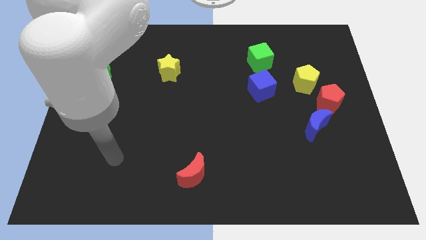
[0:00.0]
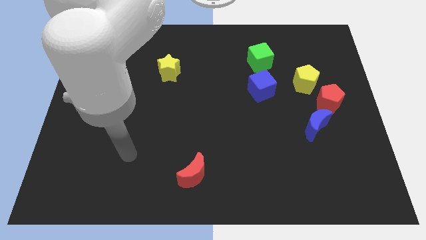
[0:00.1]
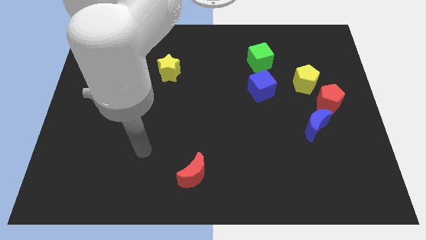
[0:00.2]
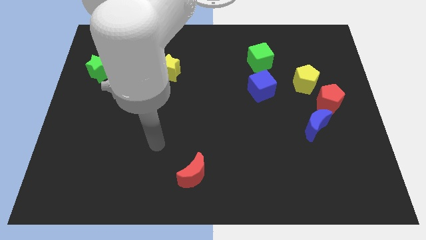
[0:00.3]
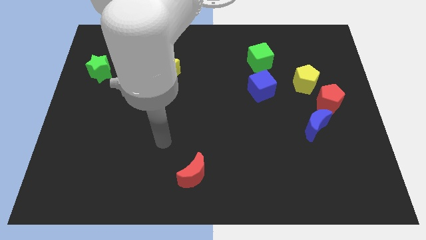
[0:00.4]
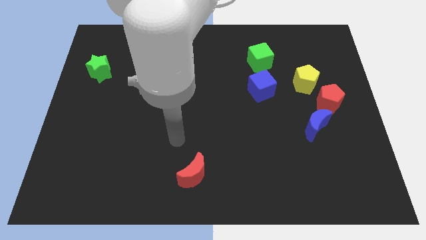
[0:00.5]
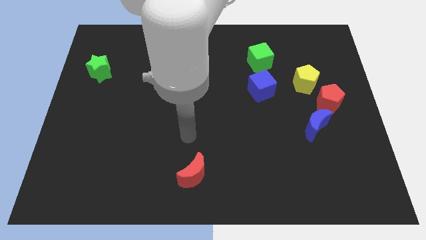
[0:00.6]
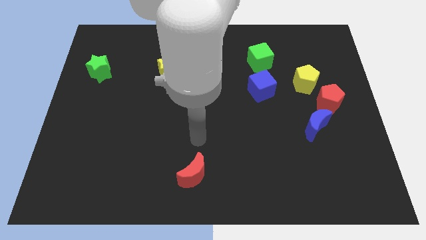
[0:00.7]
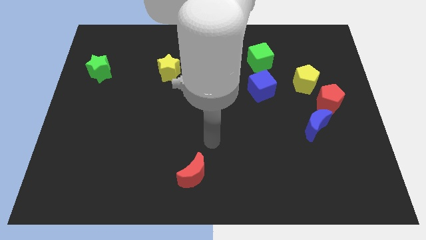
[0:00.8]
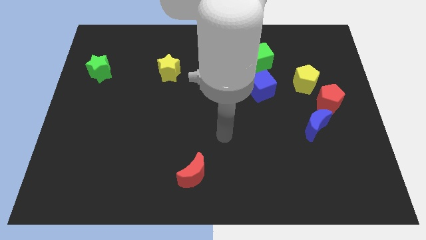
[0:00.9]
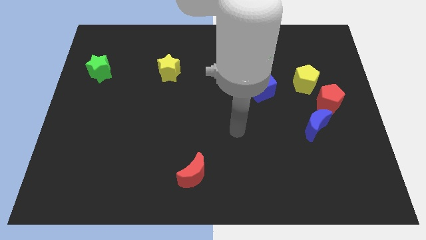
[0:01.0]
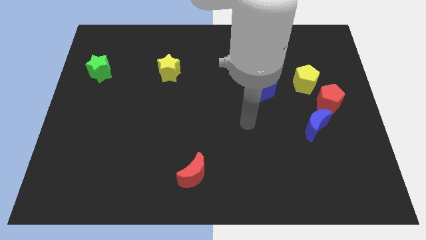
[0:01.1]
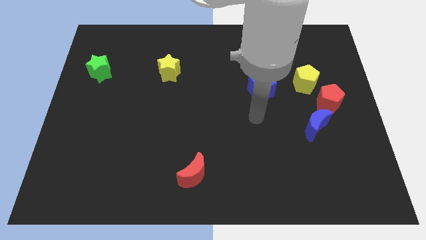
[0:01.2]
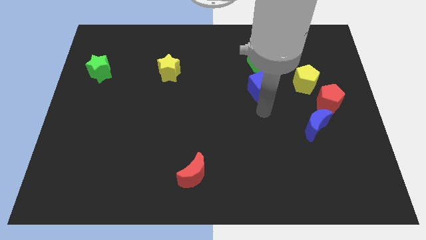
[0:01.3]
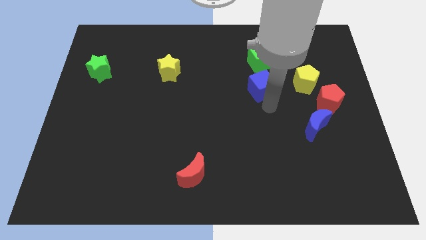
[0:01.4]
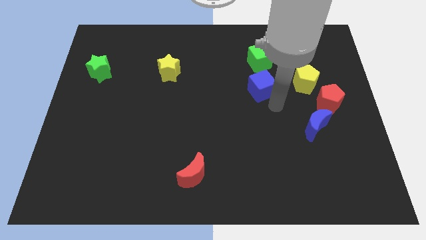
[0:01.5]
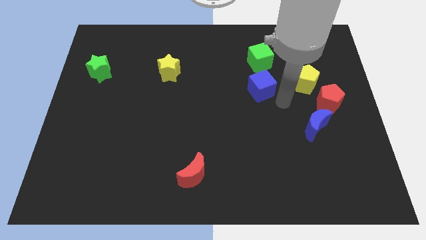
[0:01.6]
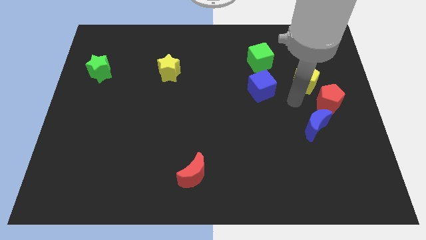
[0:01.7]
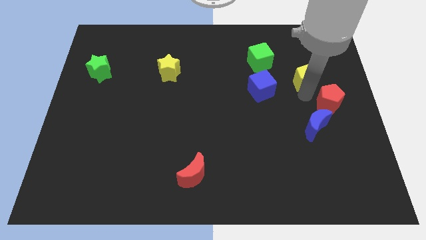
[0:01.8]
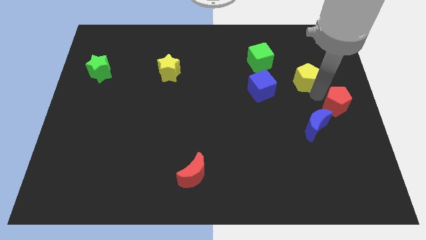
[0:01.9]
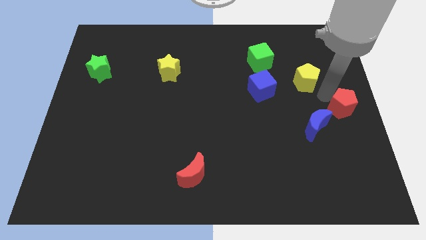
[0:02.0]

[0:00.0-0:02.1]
move the yellow pentagon away from the red pentagon

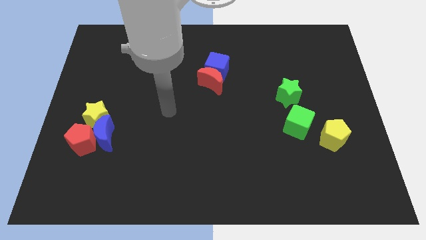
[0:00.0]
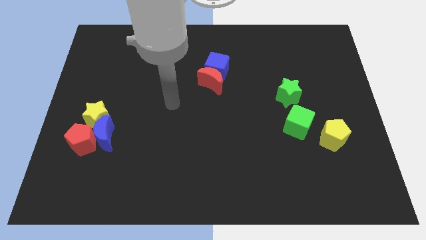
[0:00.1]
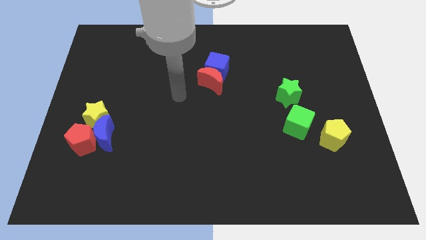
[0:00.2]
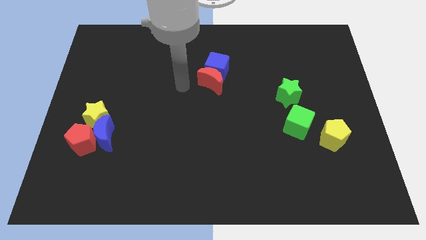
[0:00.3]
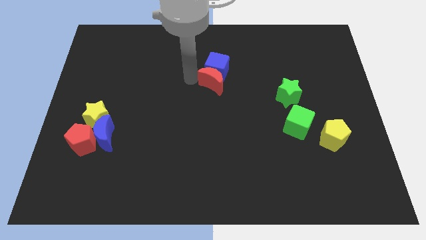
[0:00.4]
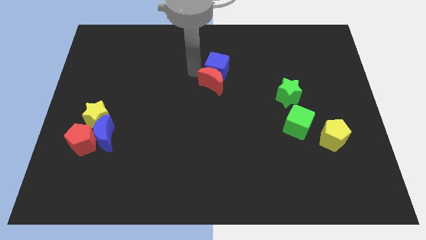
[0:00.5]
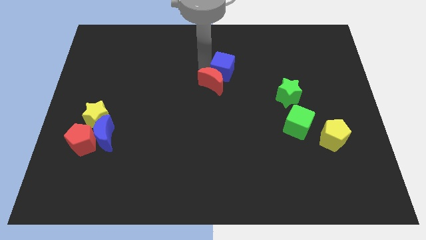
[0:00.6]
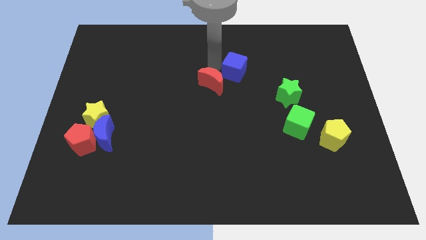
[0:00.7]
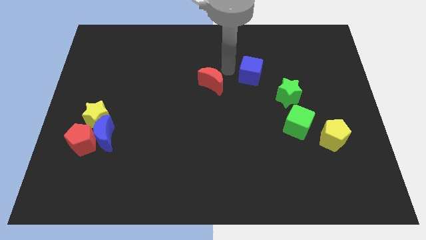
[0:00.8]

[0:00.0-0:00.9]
separate the red moon from the blue cube

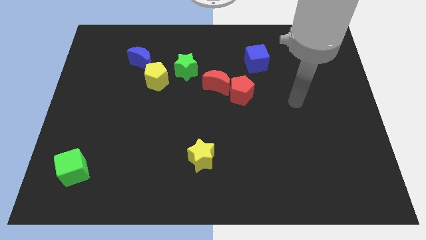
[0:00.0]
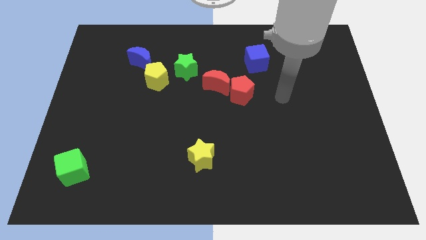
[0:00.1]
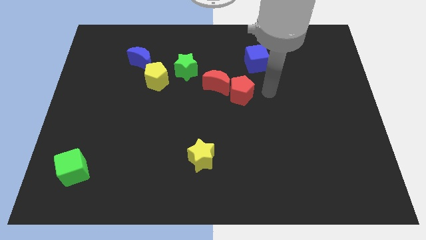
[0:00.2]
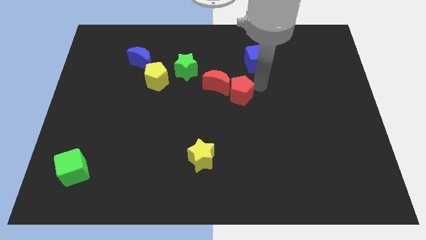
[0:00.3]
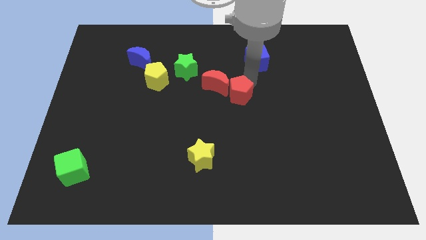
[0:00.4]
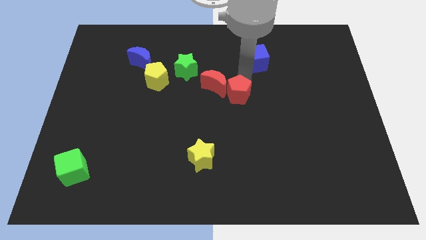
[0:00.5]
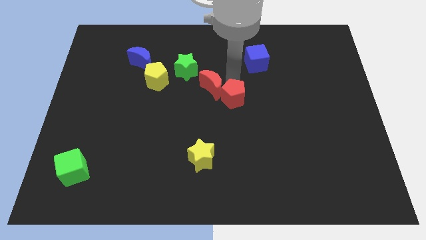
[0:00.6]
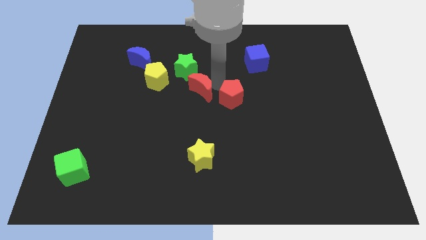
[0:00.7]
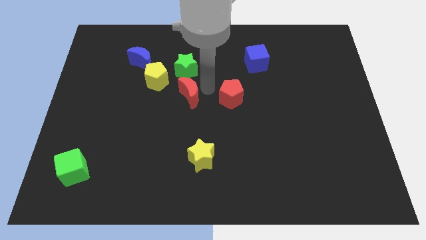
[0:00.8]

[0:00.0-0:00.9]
pull the red pentagon apart from the red moon

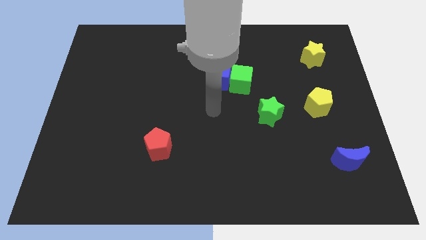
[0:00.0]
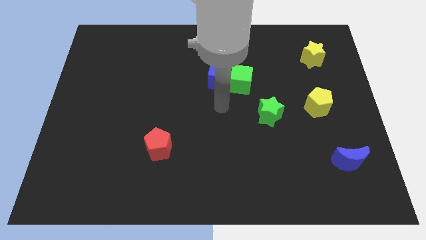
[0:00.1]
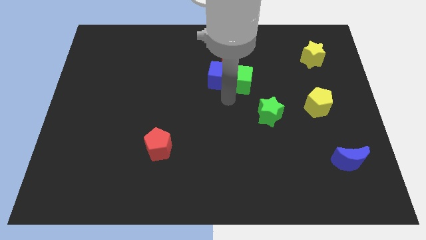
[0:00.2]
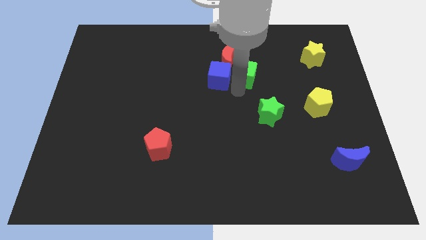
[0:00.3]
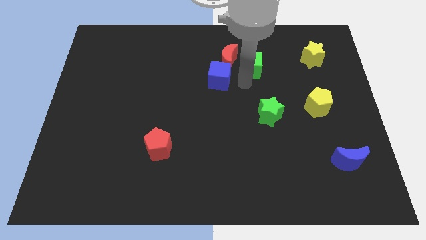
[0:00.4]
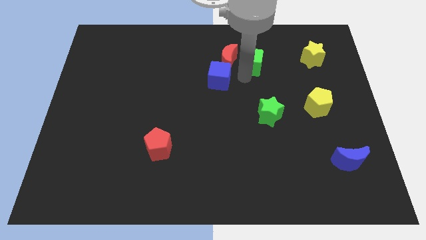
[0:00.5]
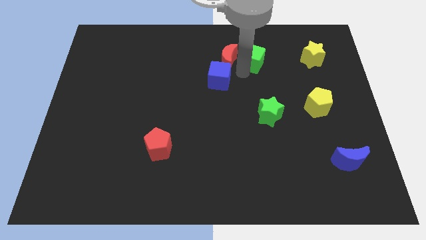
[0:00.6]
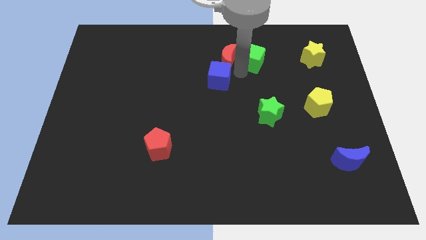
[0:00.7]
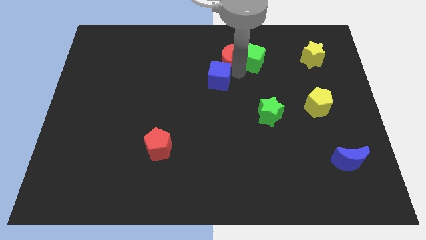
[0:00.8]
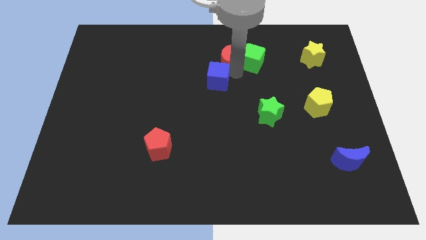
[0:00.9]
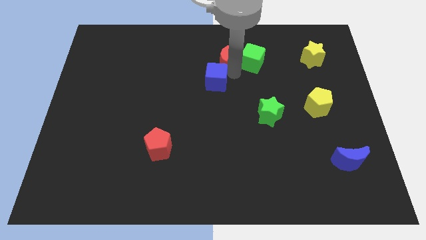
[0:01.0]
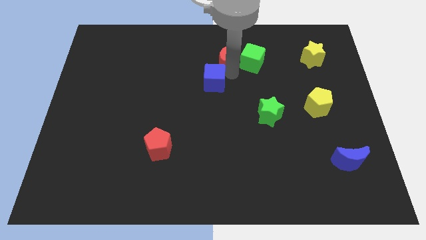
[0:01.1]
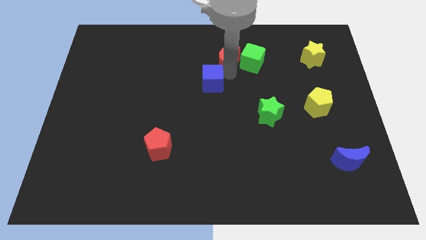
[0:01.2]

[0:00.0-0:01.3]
separate the blue cube from the green cube and red moon

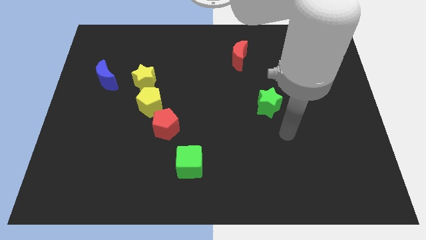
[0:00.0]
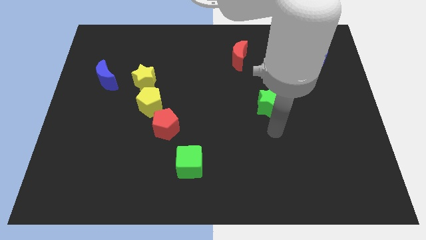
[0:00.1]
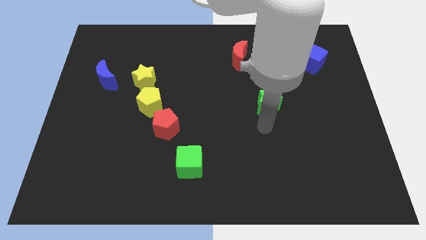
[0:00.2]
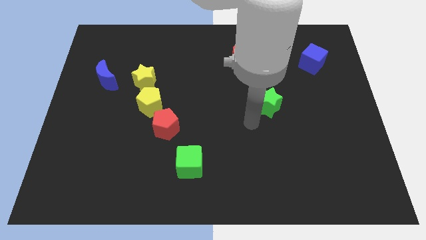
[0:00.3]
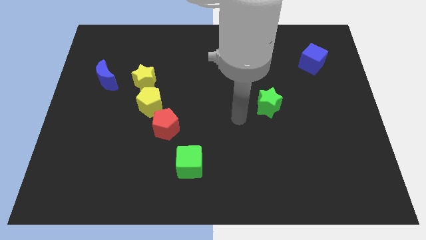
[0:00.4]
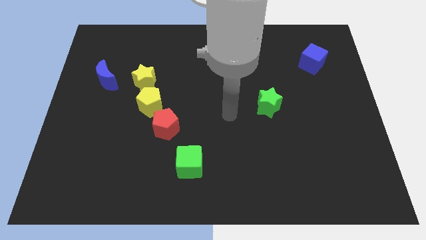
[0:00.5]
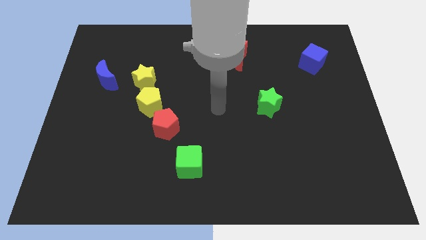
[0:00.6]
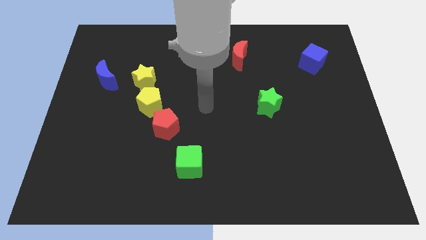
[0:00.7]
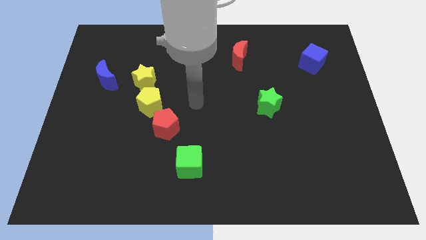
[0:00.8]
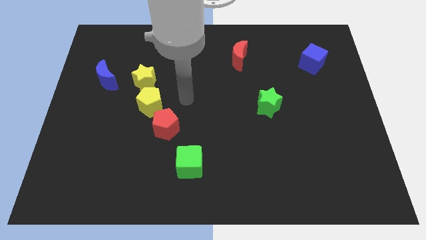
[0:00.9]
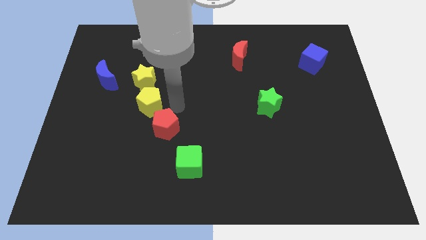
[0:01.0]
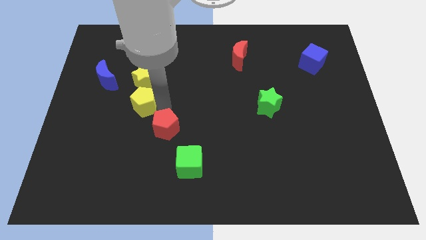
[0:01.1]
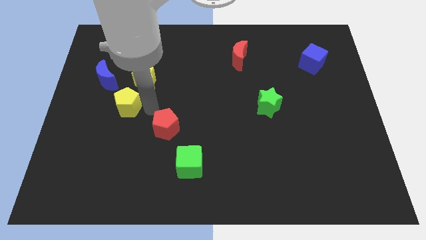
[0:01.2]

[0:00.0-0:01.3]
separate the red pentagon from the yellow pentagon

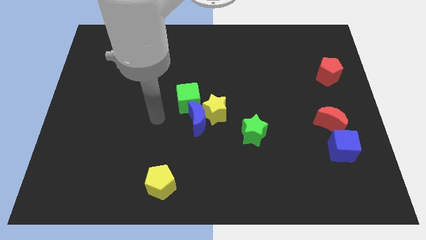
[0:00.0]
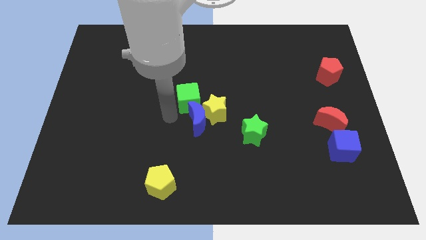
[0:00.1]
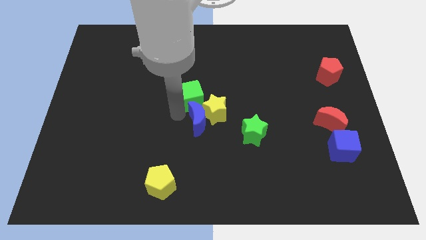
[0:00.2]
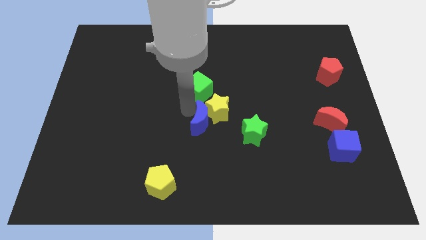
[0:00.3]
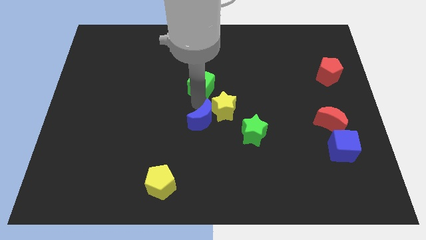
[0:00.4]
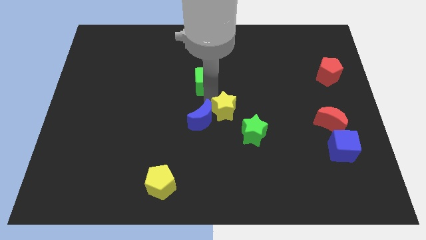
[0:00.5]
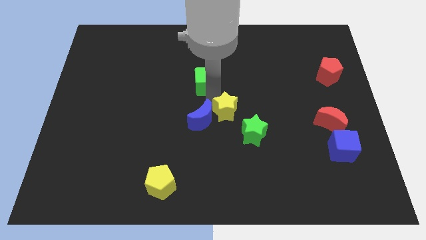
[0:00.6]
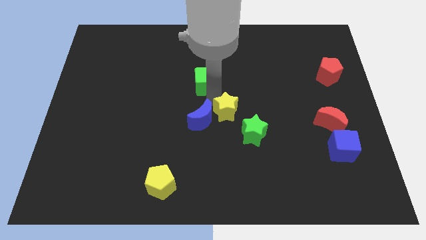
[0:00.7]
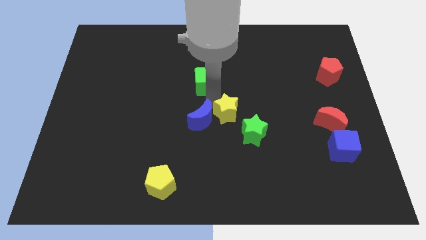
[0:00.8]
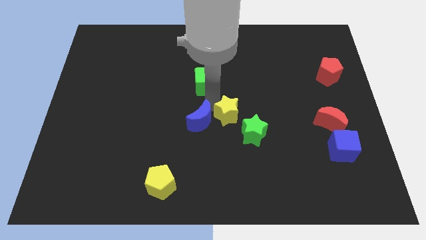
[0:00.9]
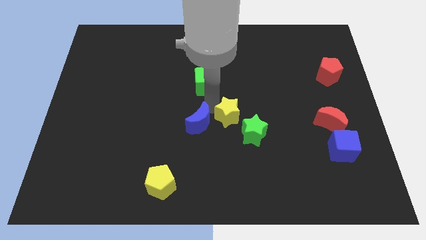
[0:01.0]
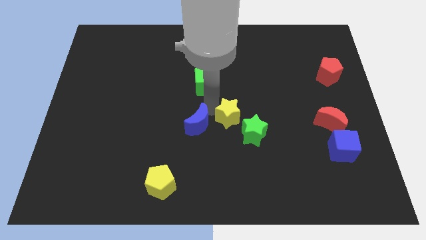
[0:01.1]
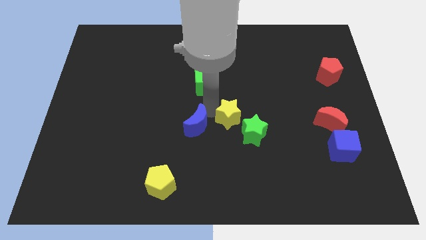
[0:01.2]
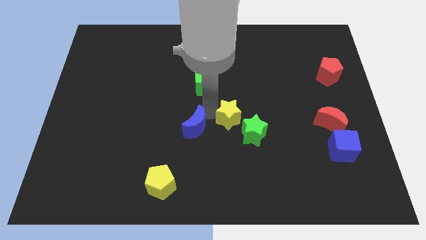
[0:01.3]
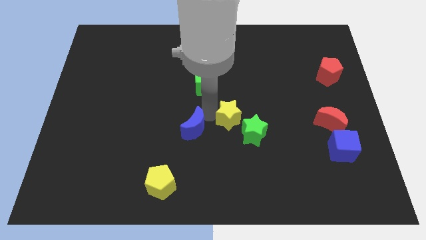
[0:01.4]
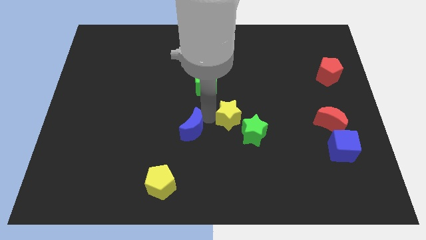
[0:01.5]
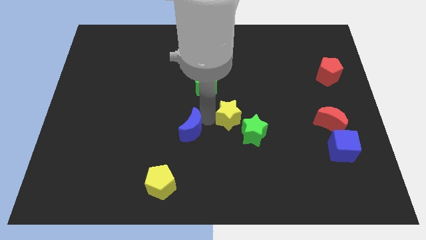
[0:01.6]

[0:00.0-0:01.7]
pull the blue moon apart from the yellow star and green cube

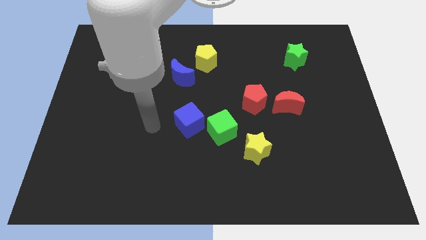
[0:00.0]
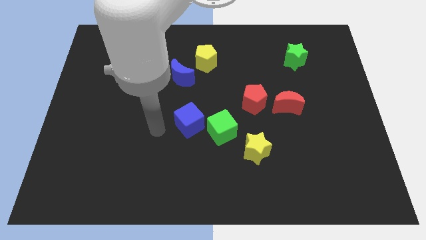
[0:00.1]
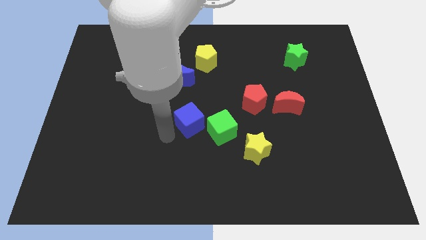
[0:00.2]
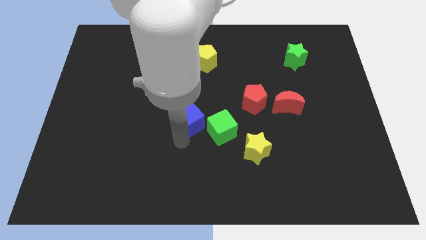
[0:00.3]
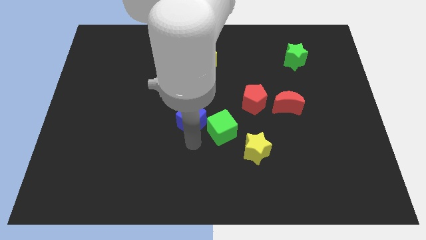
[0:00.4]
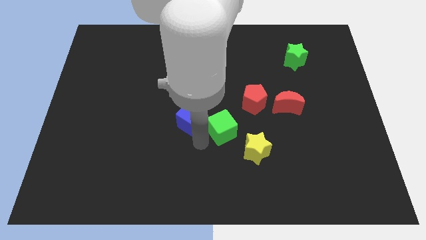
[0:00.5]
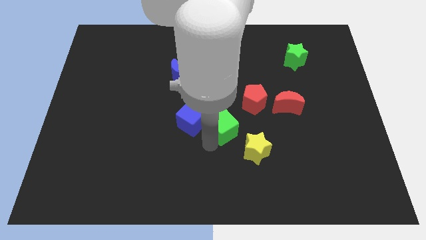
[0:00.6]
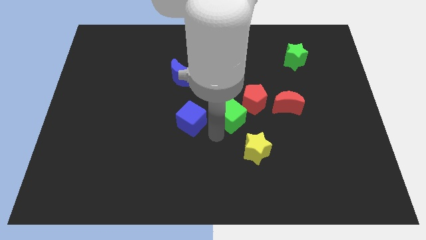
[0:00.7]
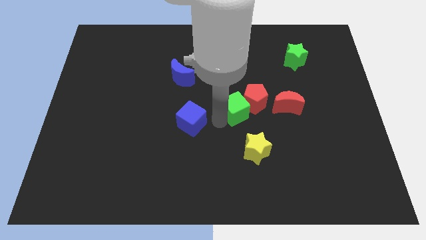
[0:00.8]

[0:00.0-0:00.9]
move the blue cube away from the green cube

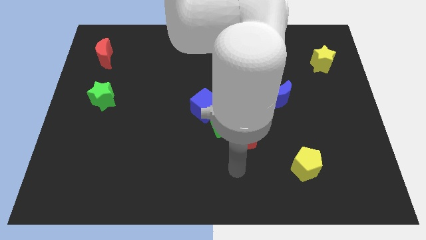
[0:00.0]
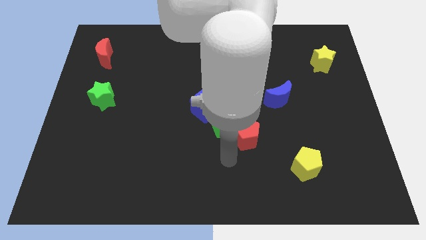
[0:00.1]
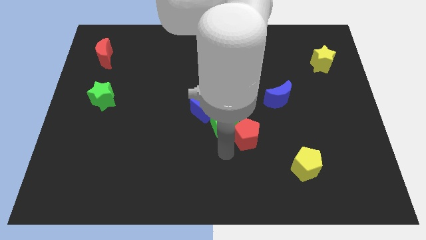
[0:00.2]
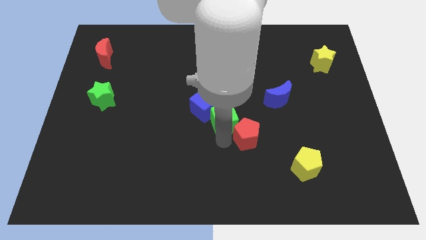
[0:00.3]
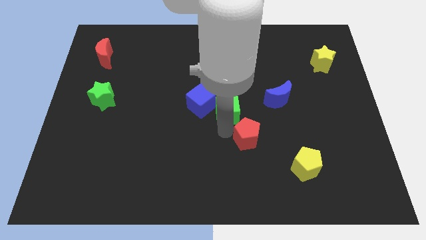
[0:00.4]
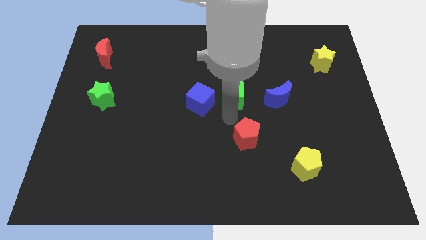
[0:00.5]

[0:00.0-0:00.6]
move the red pentagon away from the green cube
